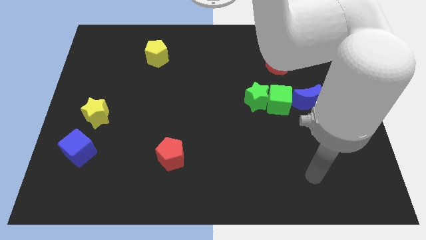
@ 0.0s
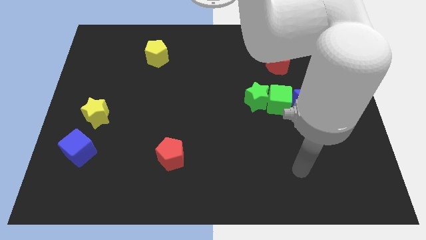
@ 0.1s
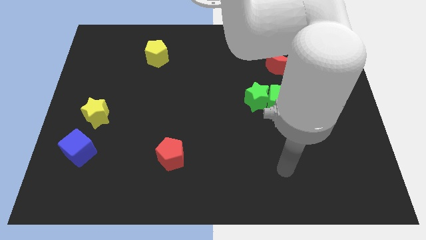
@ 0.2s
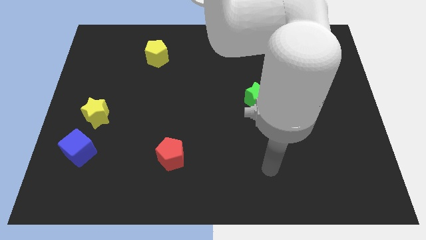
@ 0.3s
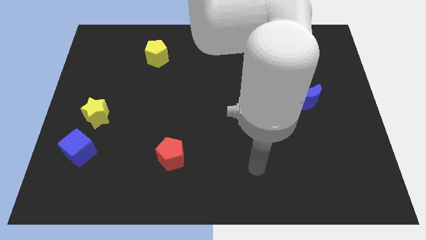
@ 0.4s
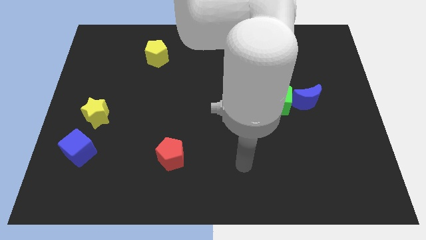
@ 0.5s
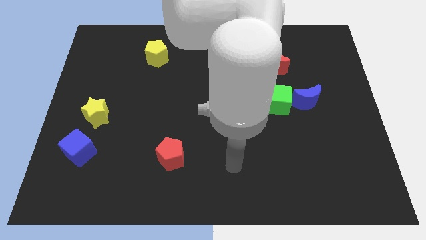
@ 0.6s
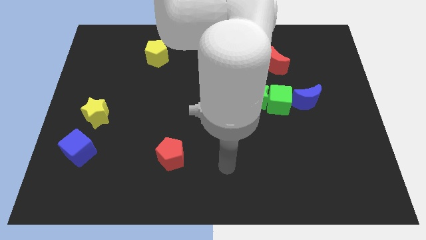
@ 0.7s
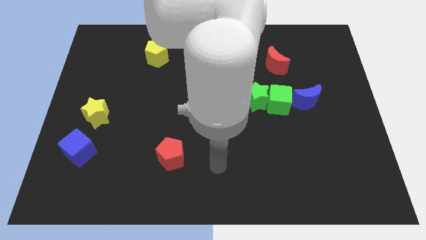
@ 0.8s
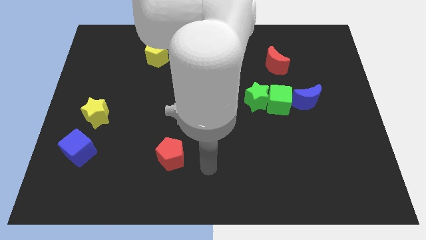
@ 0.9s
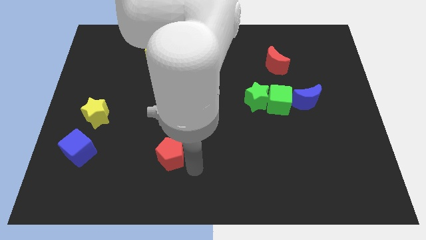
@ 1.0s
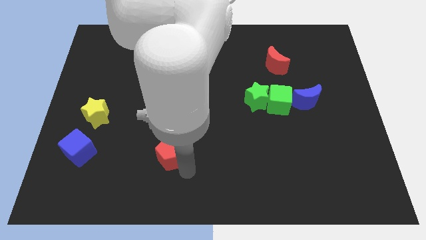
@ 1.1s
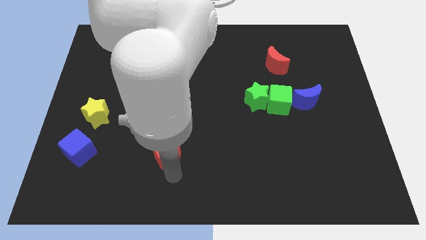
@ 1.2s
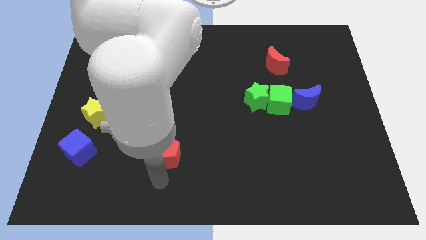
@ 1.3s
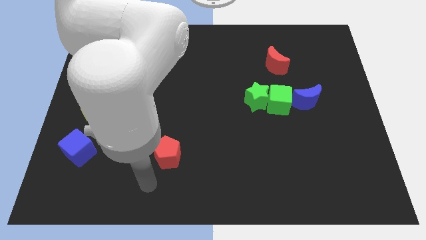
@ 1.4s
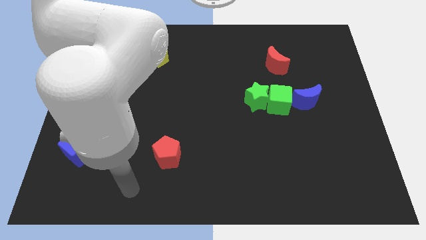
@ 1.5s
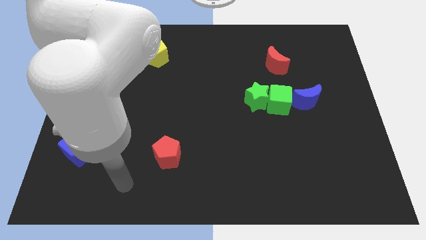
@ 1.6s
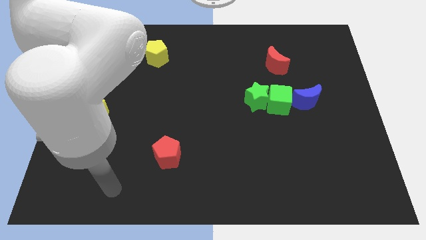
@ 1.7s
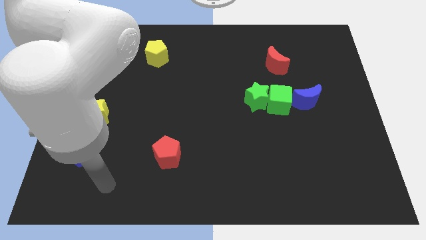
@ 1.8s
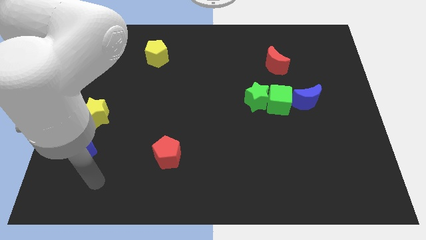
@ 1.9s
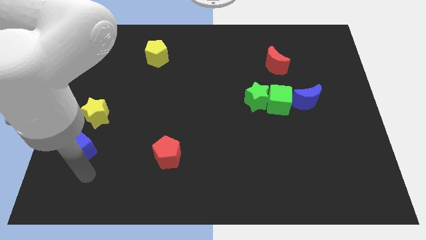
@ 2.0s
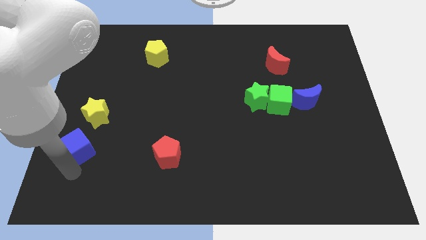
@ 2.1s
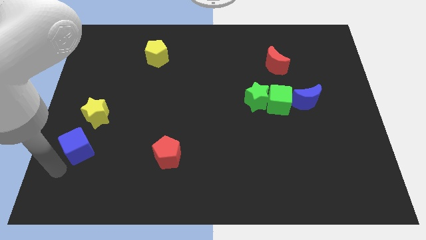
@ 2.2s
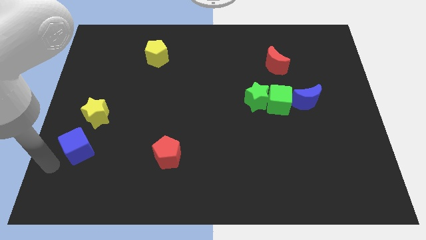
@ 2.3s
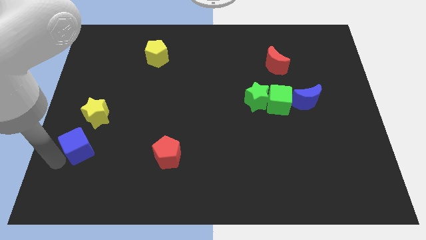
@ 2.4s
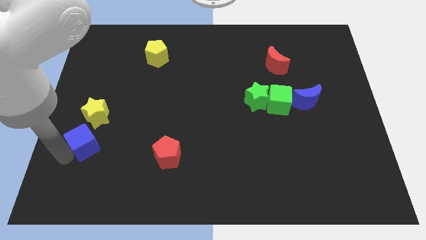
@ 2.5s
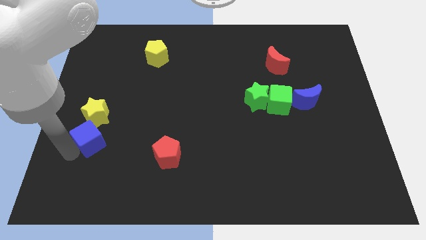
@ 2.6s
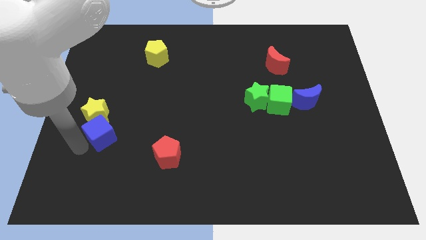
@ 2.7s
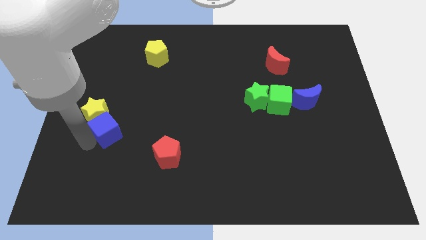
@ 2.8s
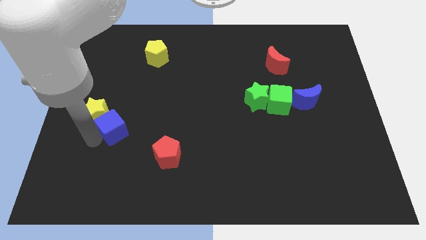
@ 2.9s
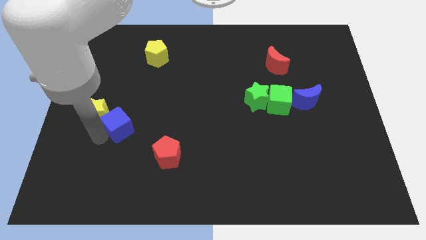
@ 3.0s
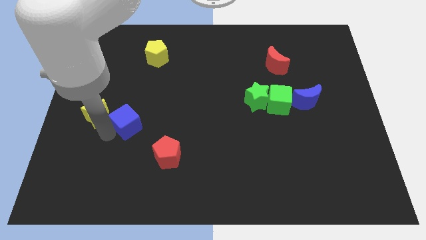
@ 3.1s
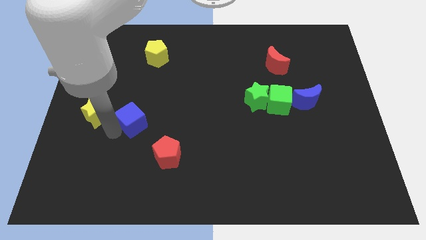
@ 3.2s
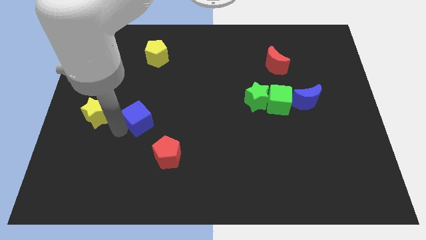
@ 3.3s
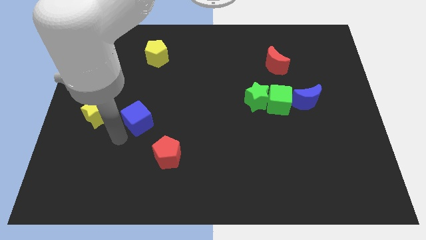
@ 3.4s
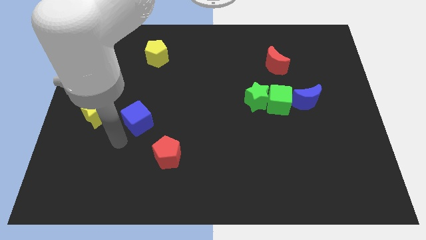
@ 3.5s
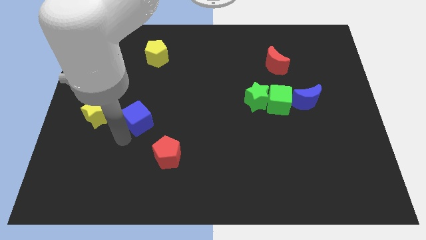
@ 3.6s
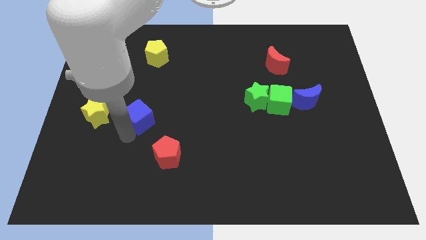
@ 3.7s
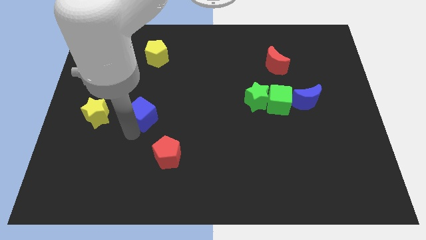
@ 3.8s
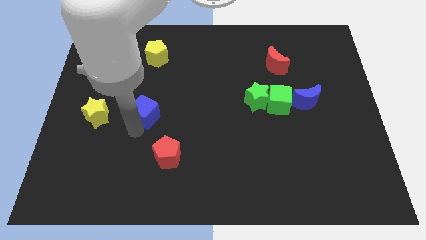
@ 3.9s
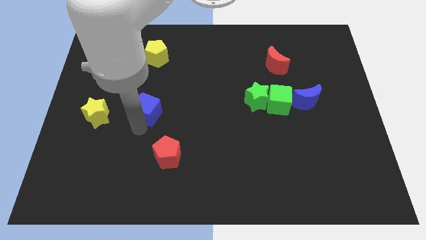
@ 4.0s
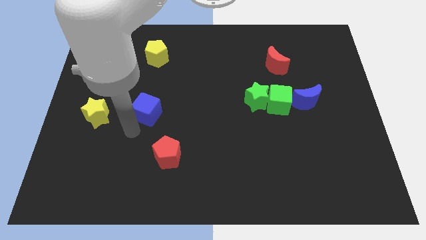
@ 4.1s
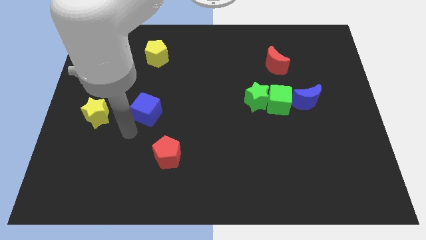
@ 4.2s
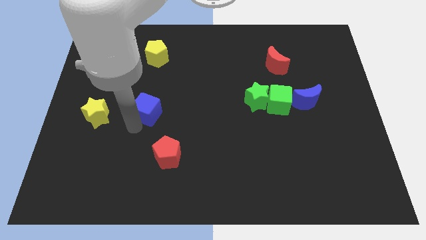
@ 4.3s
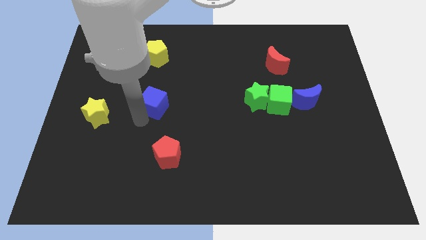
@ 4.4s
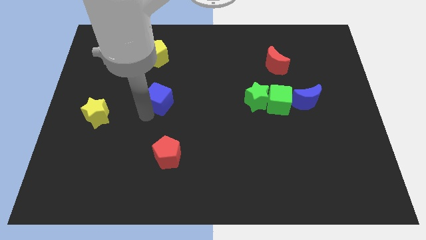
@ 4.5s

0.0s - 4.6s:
move the blue cube upwards and right diagonally

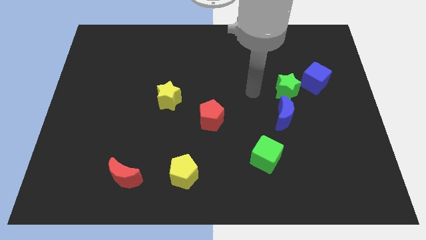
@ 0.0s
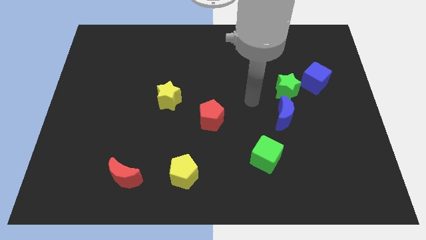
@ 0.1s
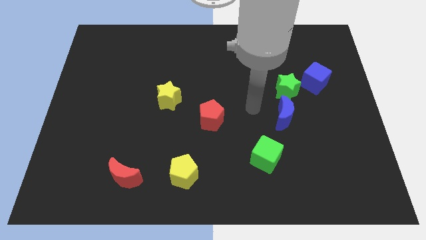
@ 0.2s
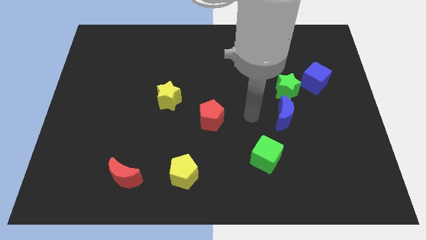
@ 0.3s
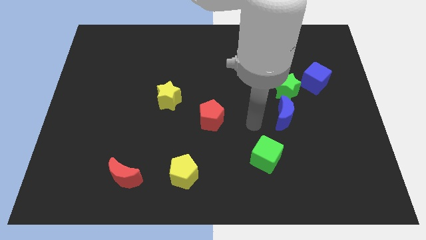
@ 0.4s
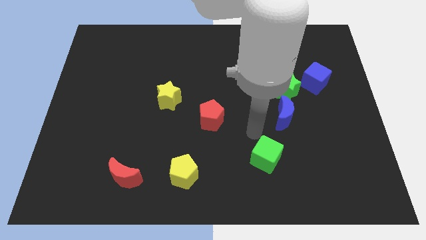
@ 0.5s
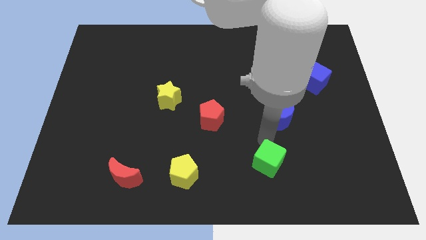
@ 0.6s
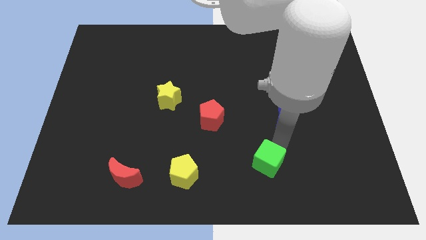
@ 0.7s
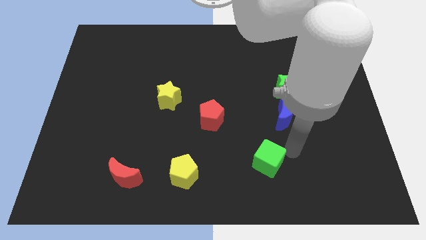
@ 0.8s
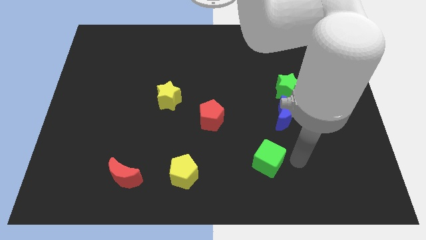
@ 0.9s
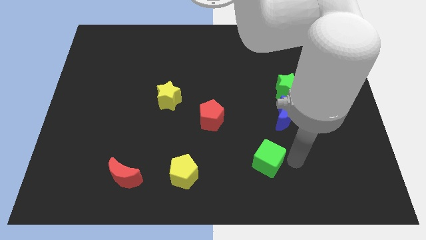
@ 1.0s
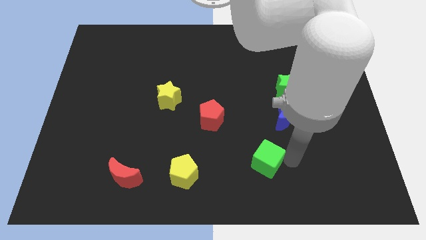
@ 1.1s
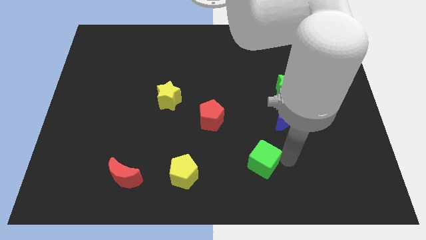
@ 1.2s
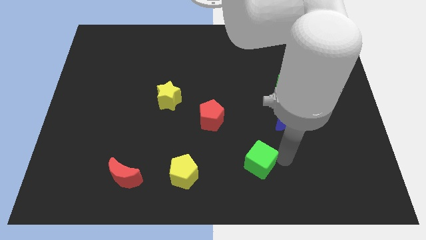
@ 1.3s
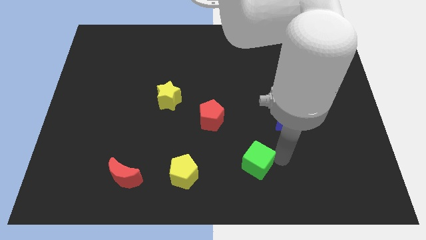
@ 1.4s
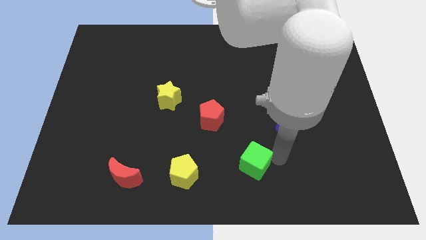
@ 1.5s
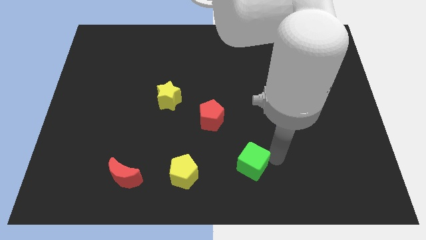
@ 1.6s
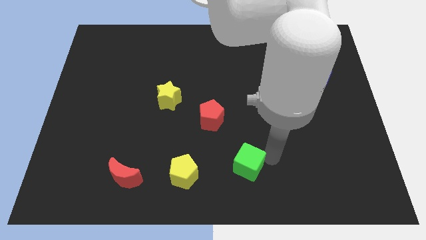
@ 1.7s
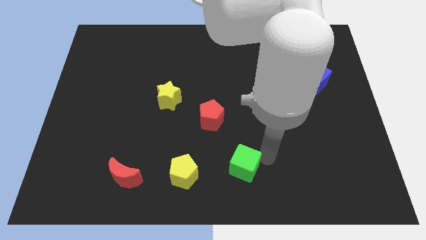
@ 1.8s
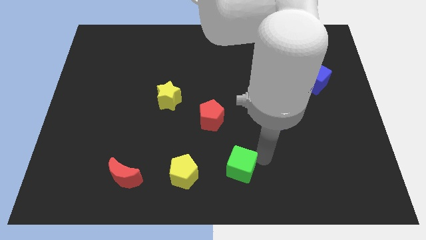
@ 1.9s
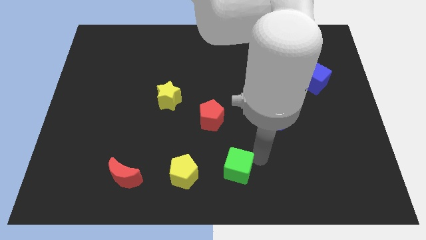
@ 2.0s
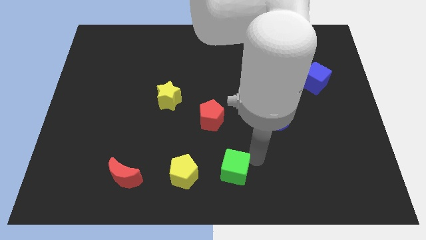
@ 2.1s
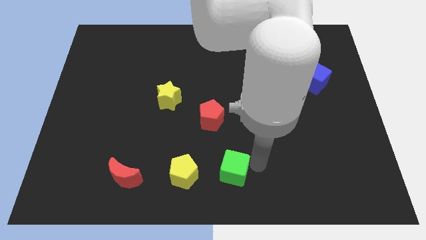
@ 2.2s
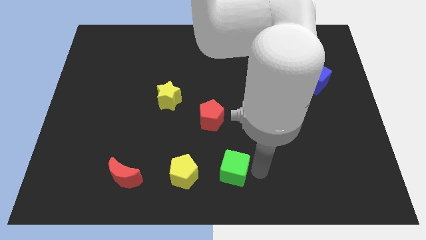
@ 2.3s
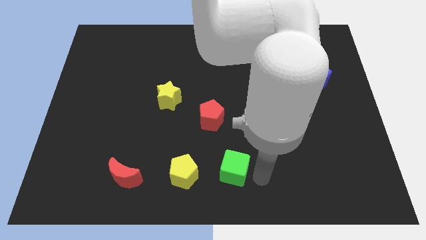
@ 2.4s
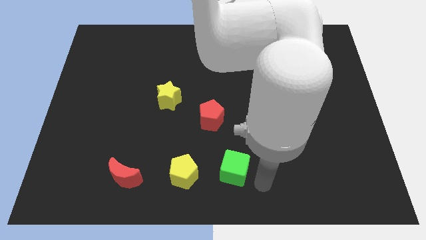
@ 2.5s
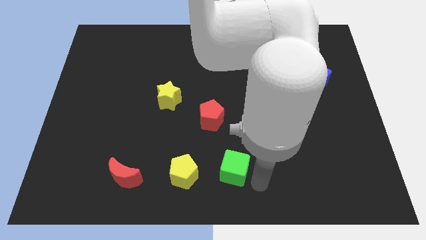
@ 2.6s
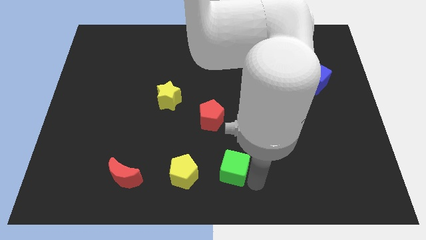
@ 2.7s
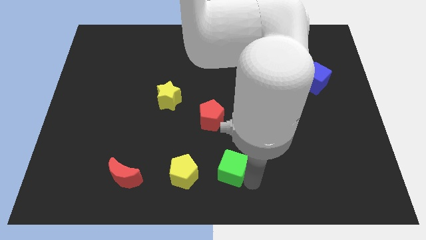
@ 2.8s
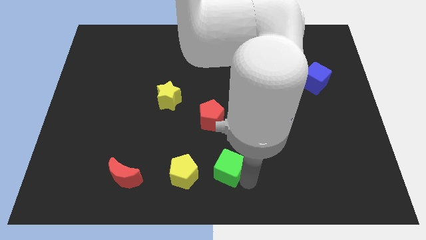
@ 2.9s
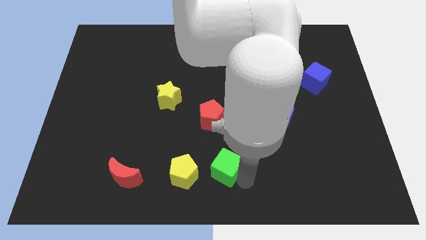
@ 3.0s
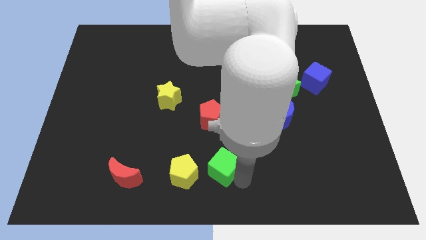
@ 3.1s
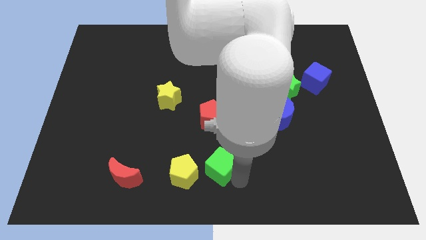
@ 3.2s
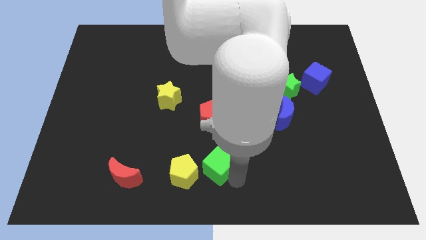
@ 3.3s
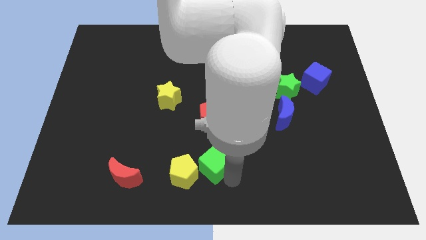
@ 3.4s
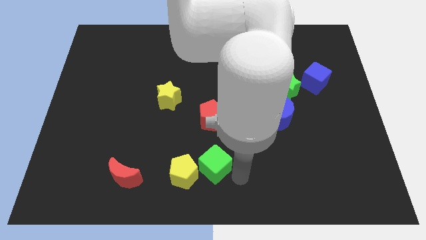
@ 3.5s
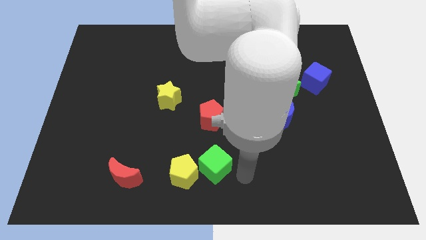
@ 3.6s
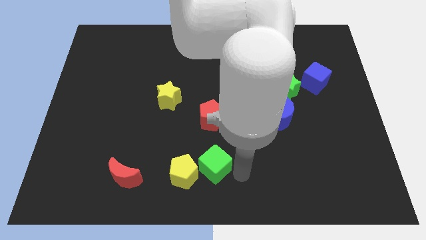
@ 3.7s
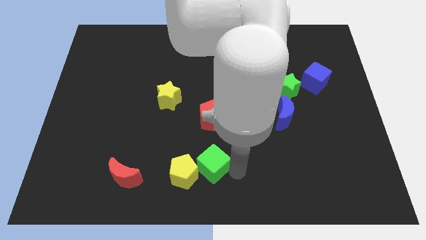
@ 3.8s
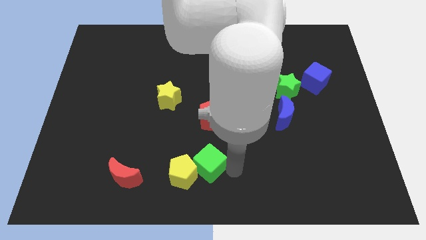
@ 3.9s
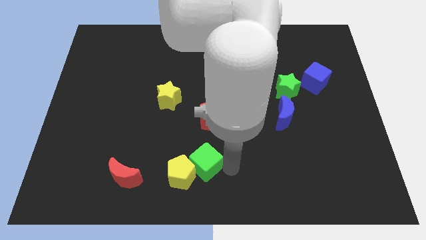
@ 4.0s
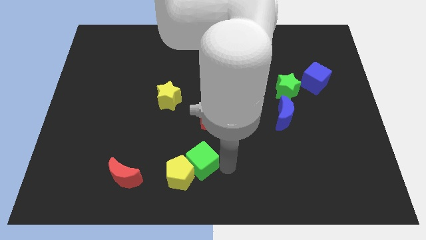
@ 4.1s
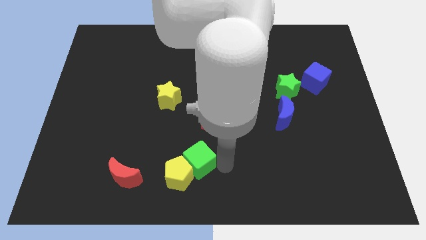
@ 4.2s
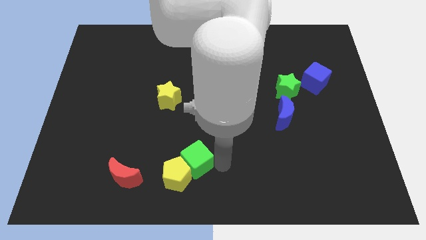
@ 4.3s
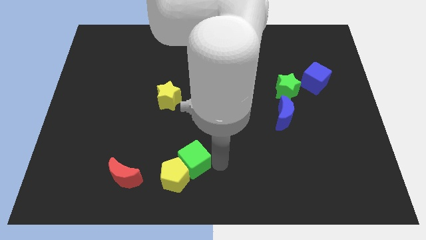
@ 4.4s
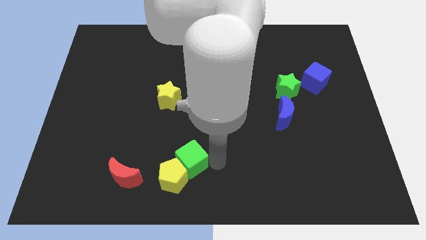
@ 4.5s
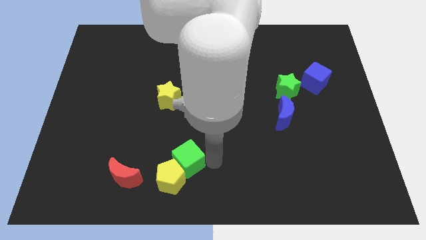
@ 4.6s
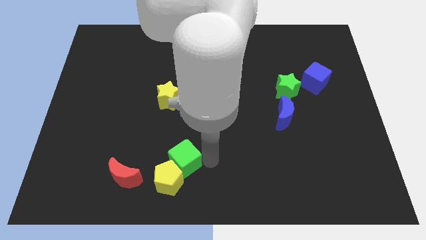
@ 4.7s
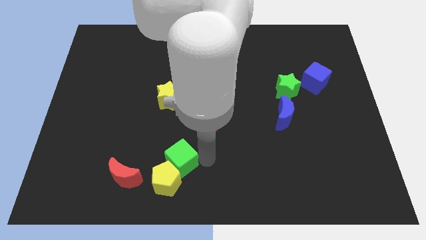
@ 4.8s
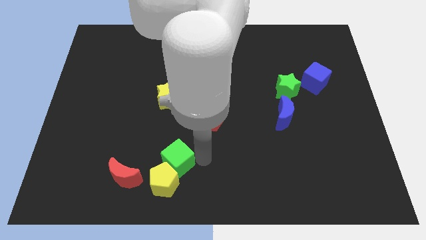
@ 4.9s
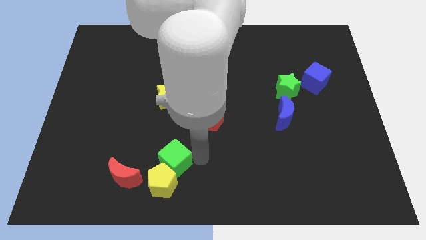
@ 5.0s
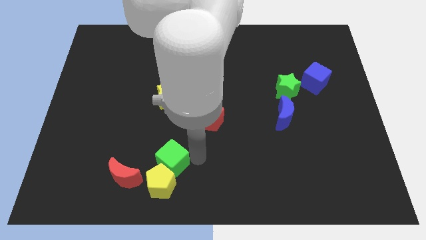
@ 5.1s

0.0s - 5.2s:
push the green cube left
